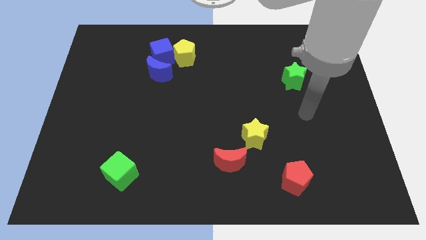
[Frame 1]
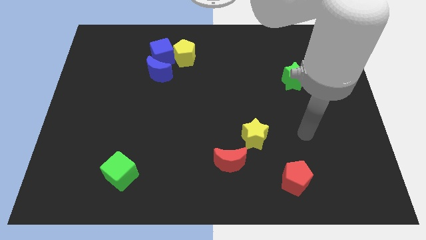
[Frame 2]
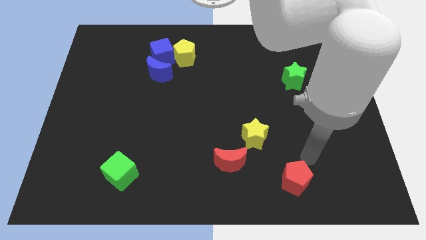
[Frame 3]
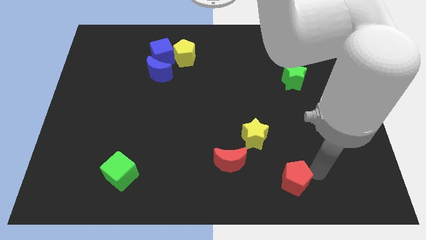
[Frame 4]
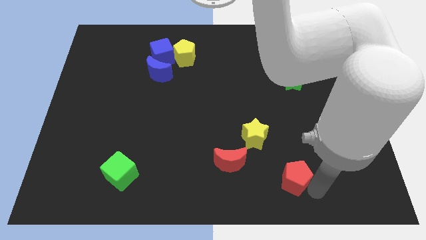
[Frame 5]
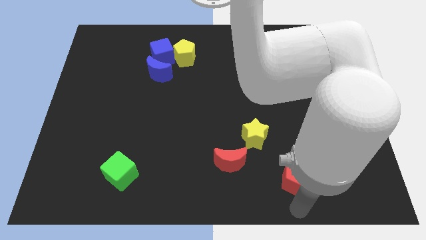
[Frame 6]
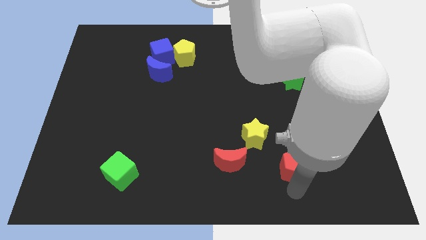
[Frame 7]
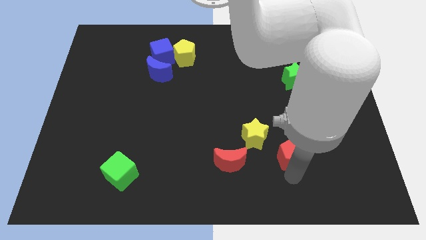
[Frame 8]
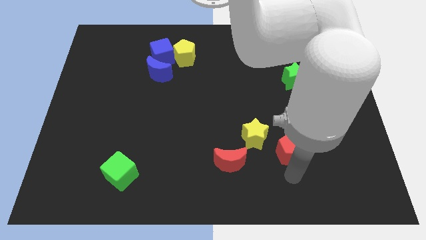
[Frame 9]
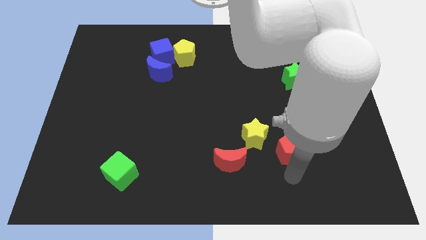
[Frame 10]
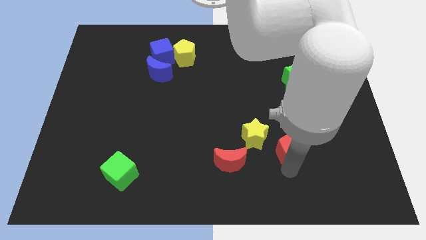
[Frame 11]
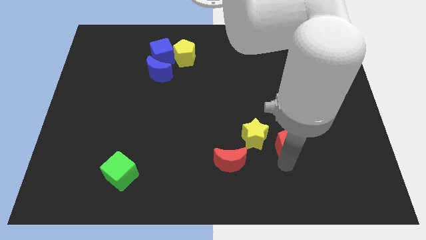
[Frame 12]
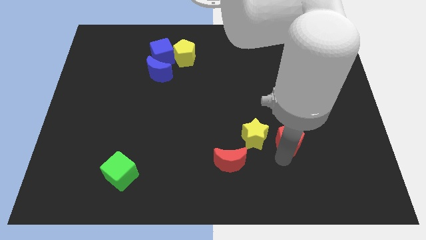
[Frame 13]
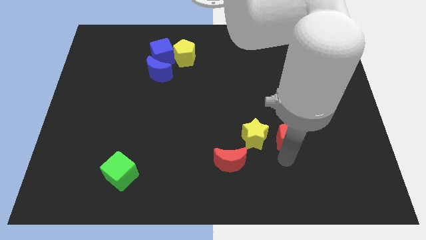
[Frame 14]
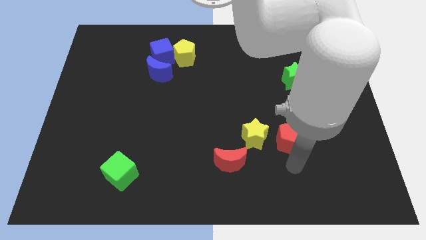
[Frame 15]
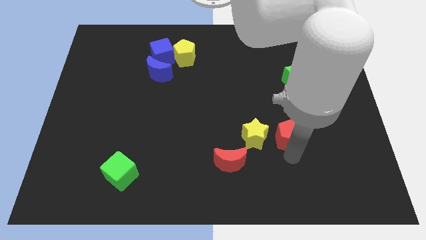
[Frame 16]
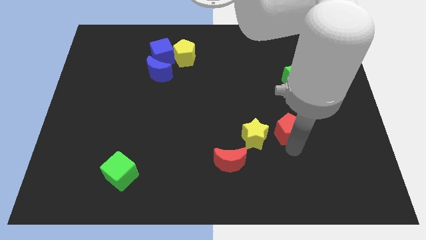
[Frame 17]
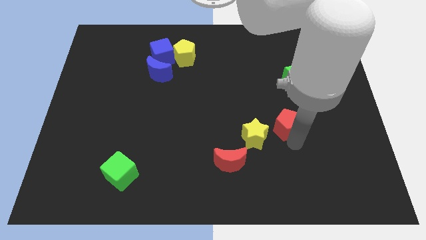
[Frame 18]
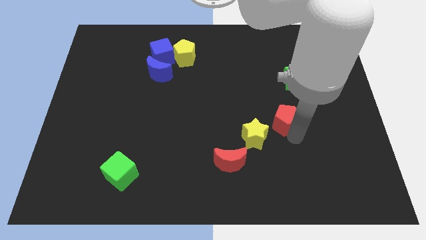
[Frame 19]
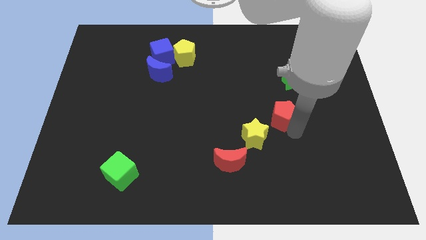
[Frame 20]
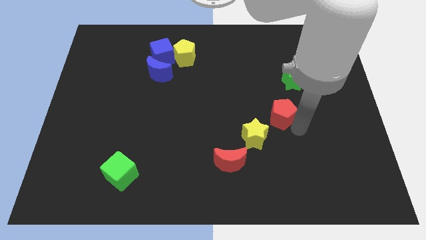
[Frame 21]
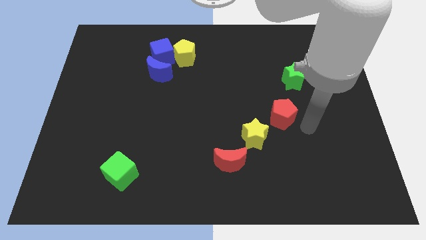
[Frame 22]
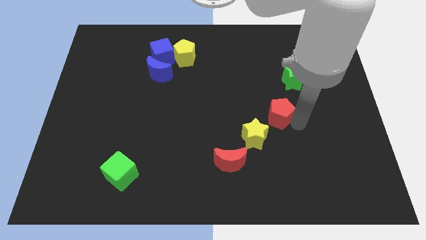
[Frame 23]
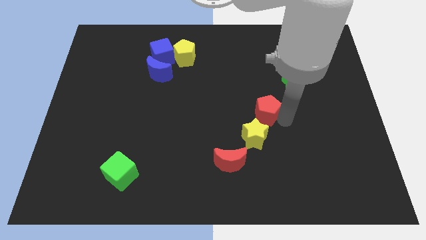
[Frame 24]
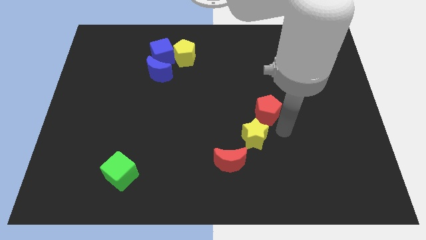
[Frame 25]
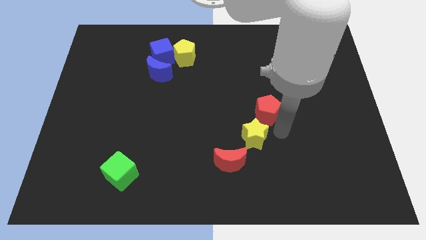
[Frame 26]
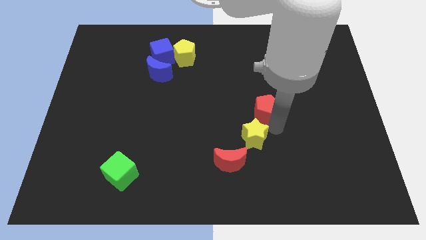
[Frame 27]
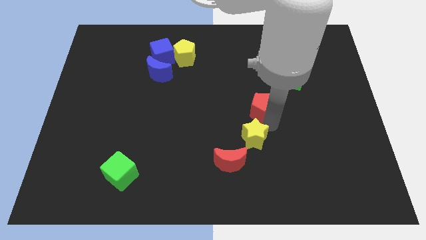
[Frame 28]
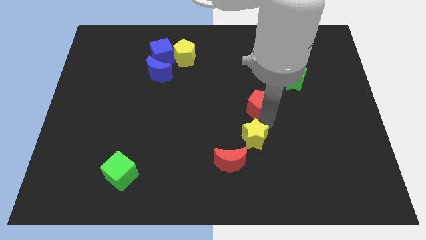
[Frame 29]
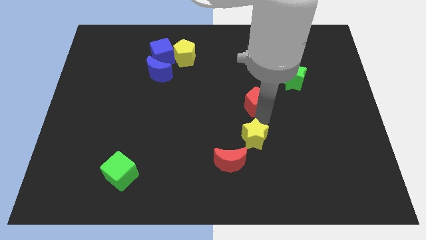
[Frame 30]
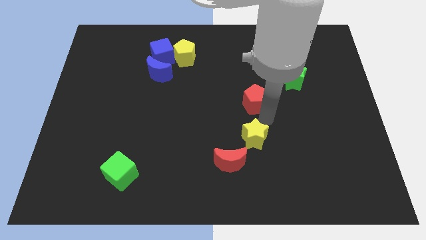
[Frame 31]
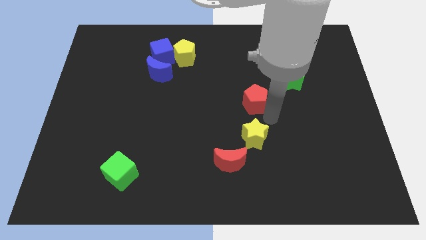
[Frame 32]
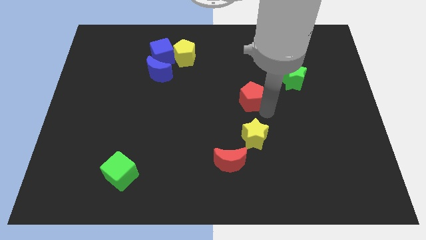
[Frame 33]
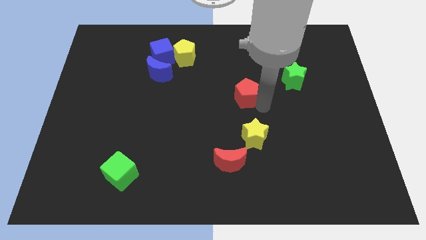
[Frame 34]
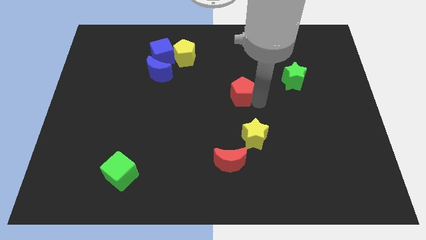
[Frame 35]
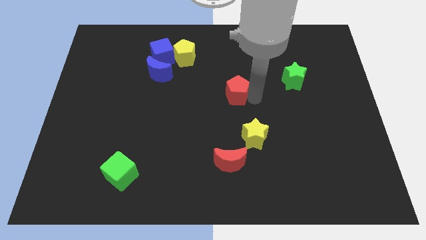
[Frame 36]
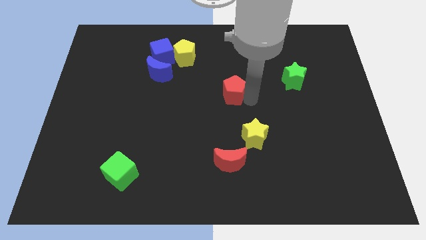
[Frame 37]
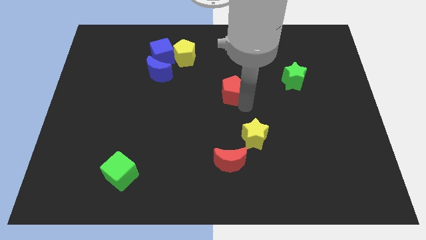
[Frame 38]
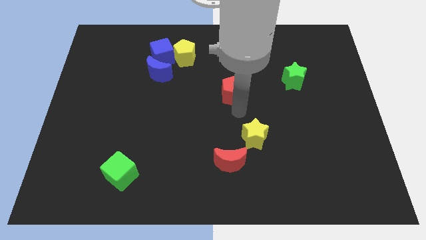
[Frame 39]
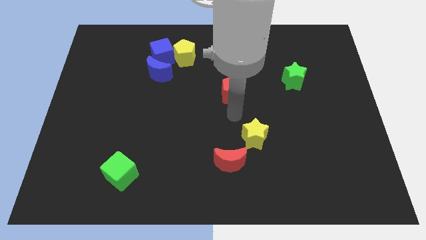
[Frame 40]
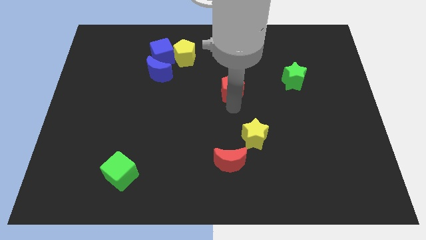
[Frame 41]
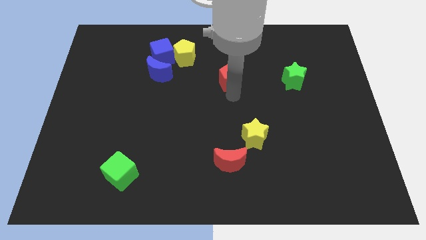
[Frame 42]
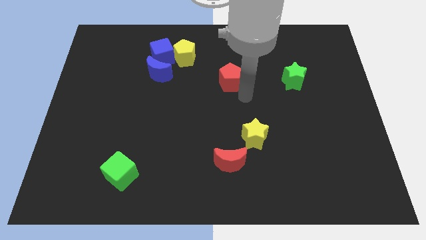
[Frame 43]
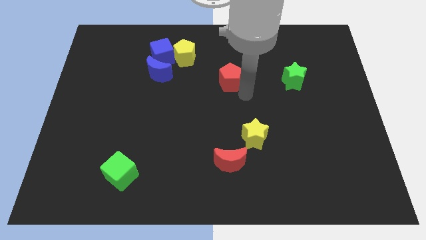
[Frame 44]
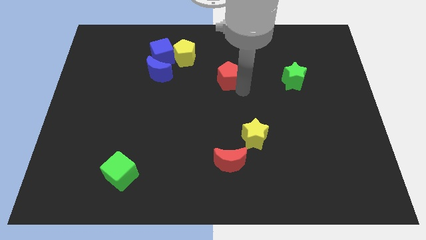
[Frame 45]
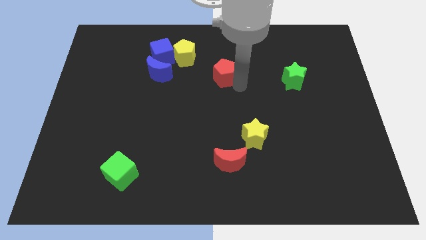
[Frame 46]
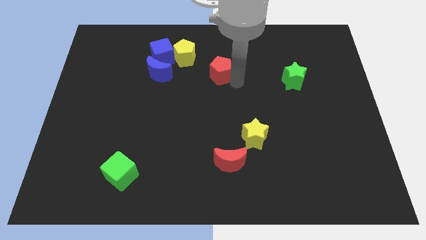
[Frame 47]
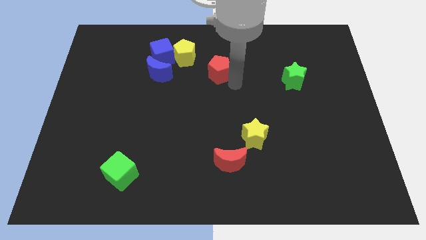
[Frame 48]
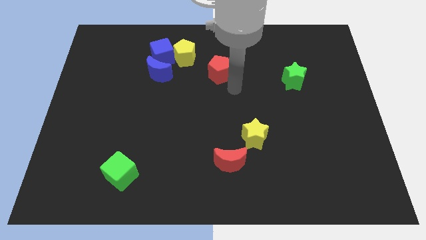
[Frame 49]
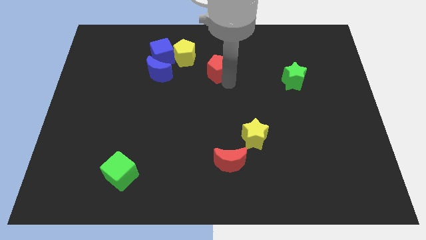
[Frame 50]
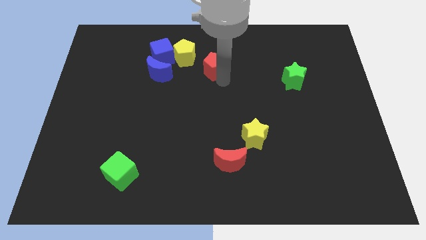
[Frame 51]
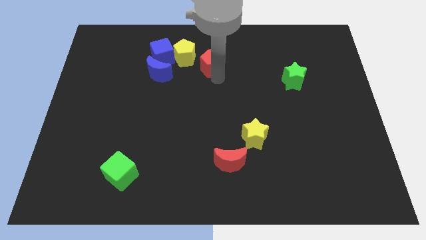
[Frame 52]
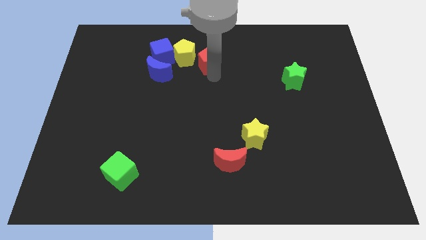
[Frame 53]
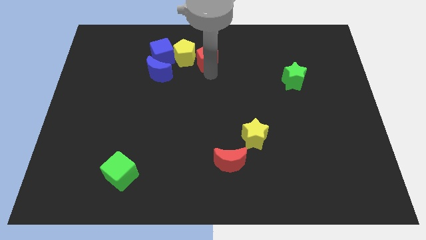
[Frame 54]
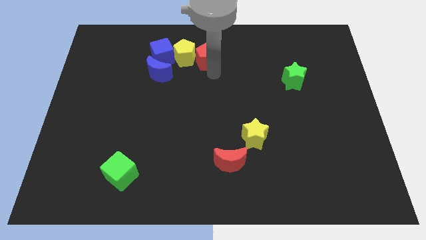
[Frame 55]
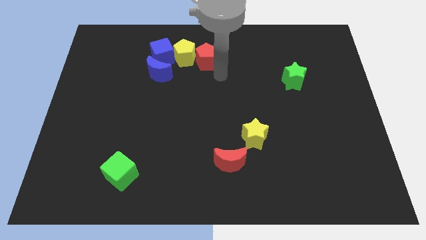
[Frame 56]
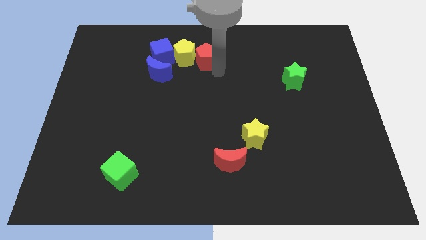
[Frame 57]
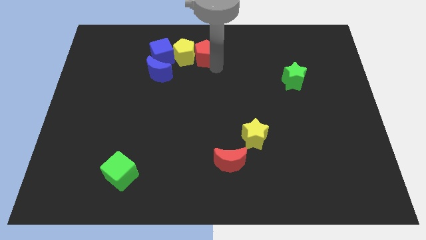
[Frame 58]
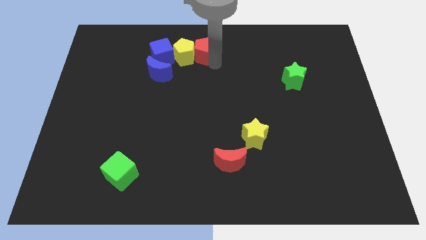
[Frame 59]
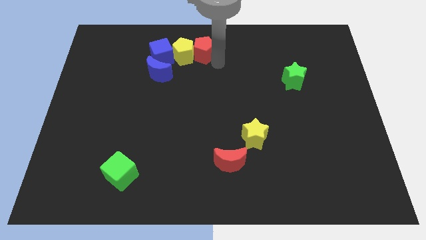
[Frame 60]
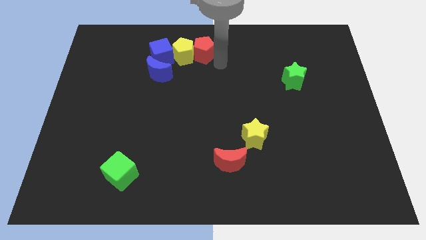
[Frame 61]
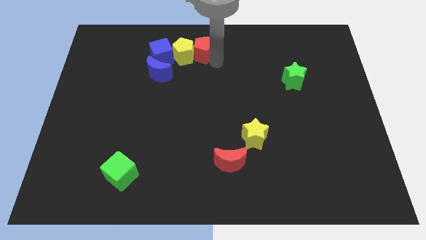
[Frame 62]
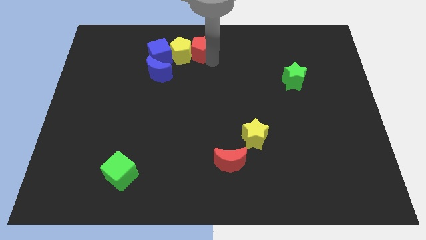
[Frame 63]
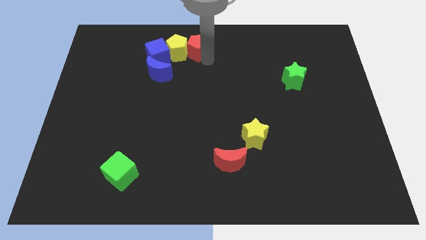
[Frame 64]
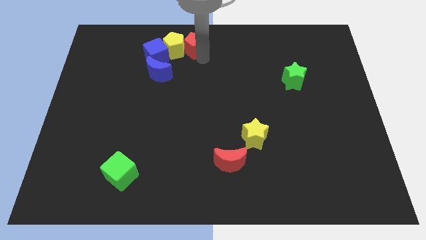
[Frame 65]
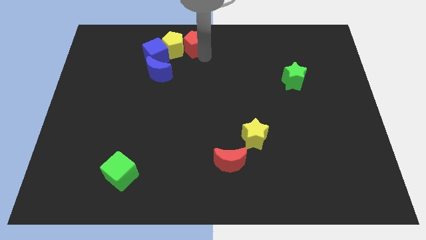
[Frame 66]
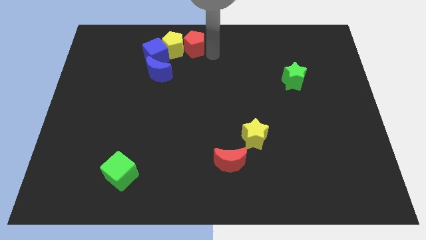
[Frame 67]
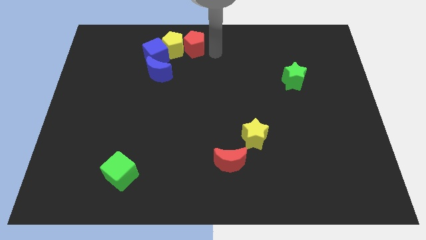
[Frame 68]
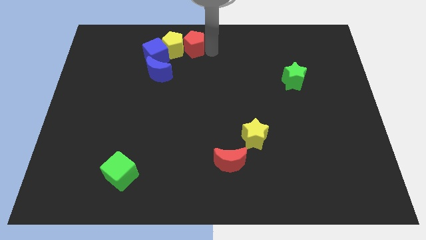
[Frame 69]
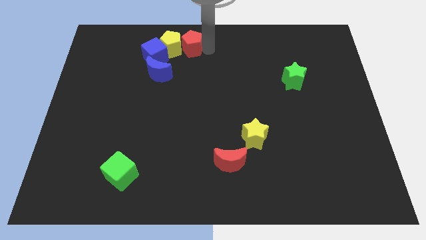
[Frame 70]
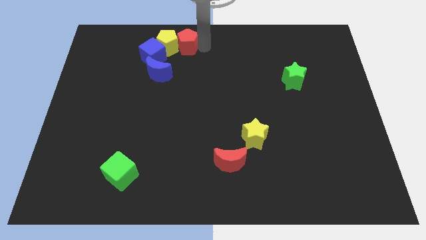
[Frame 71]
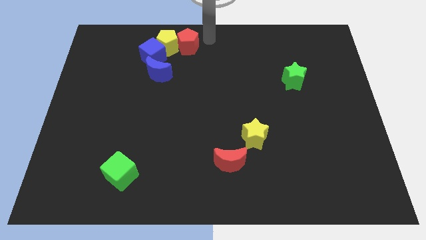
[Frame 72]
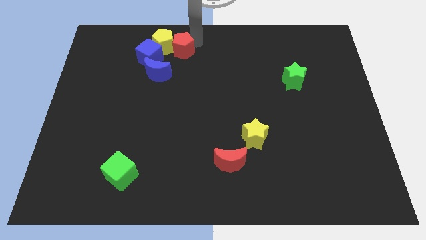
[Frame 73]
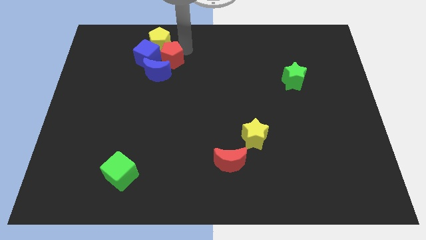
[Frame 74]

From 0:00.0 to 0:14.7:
slide the red pentagon next to the blue cube

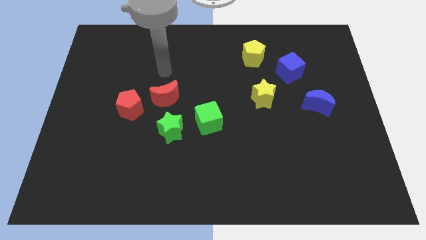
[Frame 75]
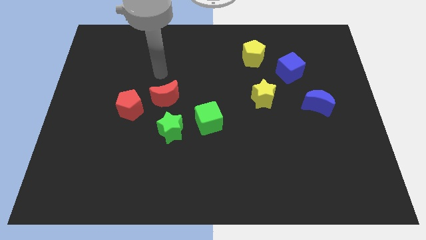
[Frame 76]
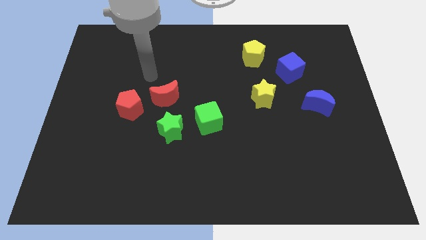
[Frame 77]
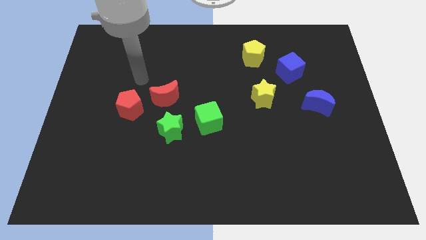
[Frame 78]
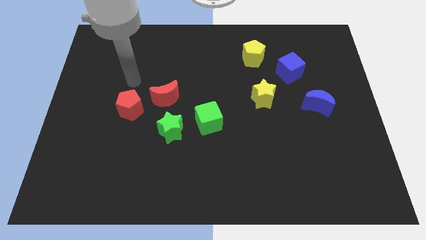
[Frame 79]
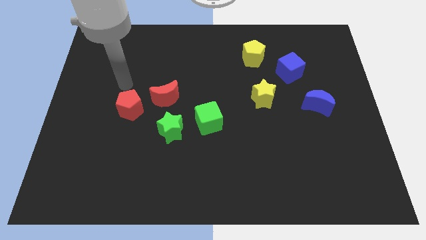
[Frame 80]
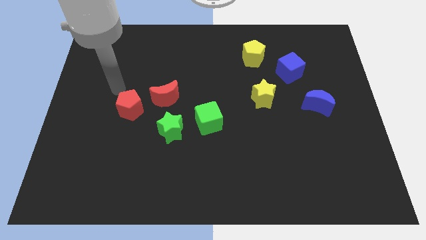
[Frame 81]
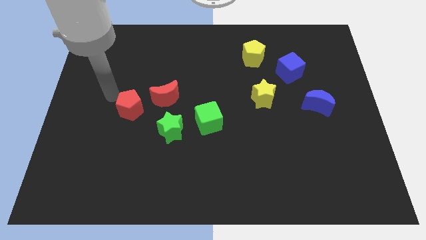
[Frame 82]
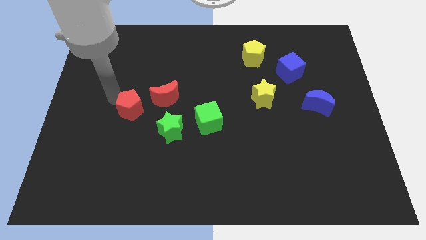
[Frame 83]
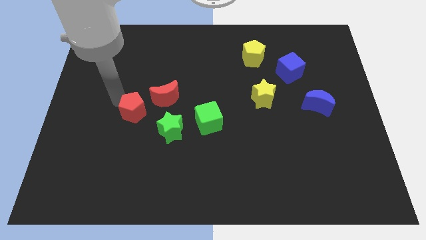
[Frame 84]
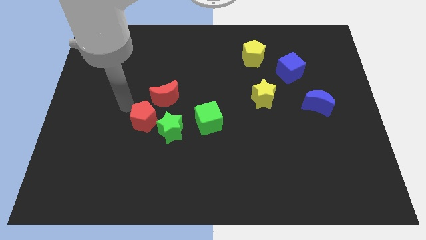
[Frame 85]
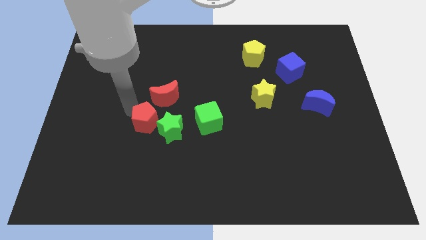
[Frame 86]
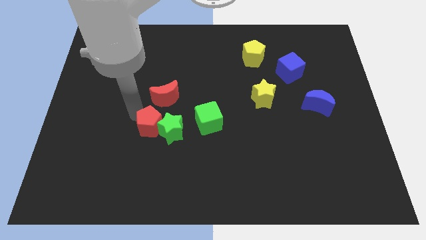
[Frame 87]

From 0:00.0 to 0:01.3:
move the red pentagon towards the green star
